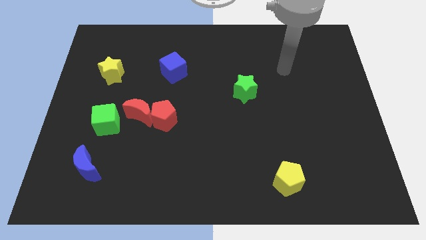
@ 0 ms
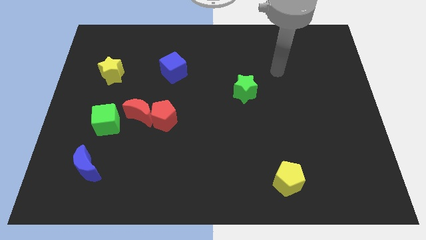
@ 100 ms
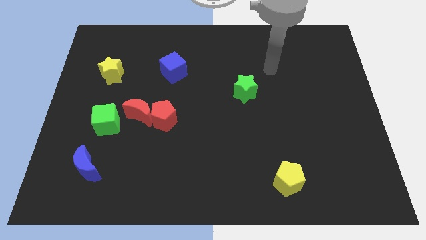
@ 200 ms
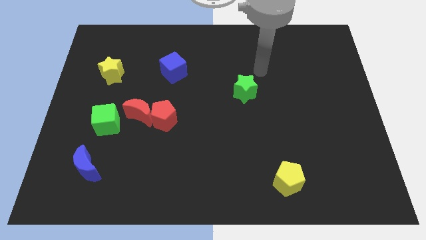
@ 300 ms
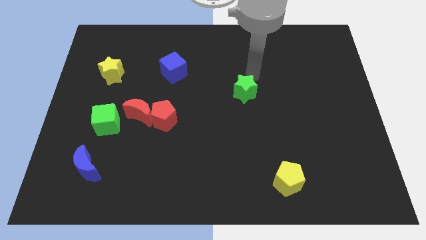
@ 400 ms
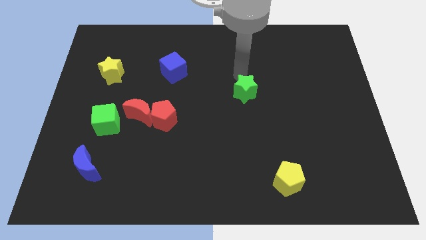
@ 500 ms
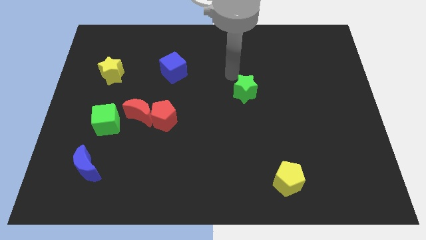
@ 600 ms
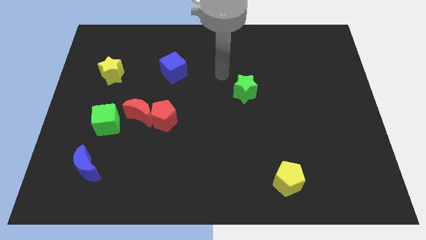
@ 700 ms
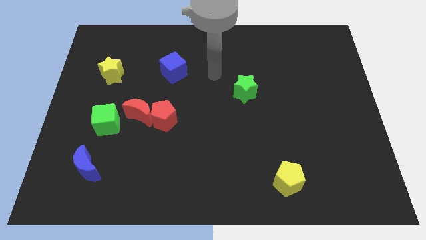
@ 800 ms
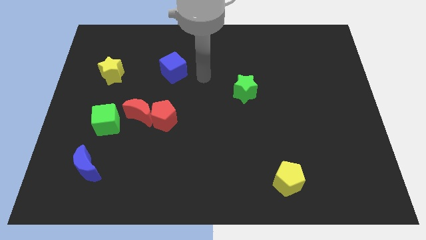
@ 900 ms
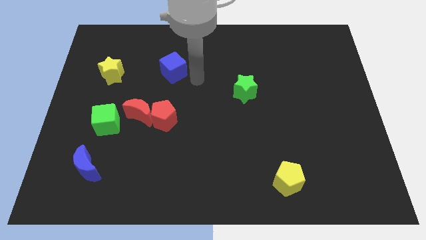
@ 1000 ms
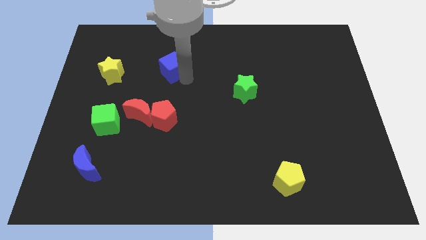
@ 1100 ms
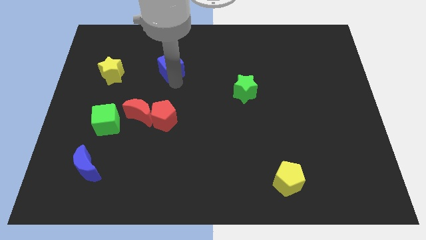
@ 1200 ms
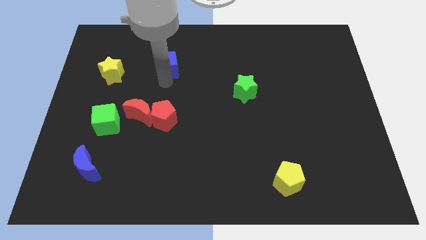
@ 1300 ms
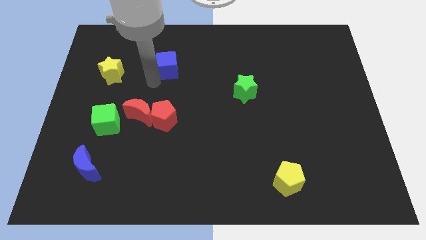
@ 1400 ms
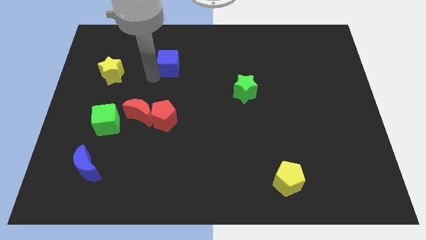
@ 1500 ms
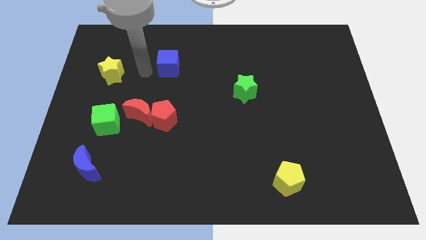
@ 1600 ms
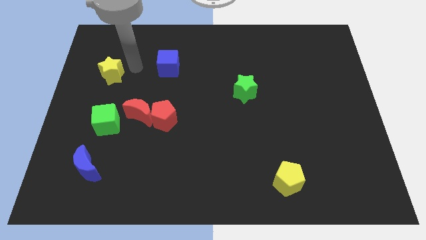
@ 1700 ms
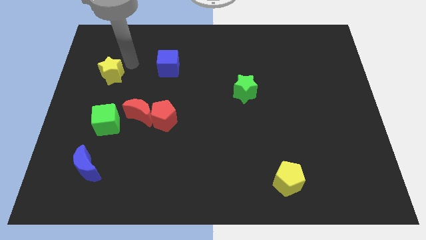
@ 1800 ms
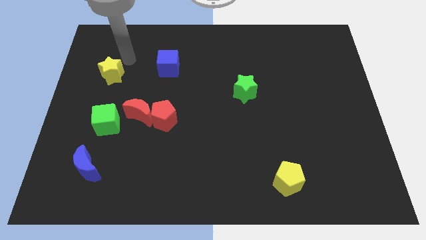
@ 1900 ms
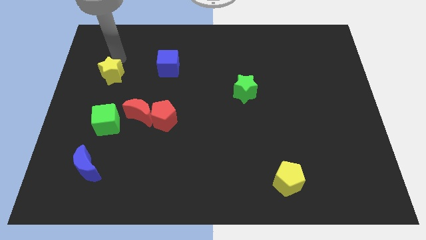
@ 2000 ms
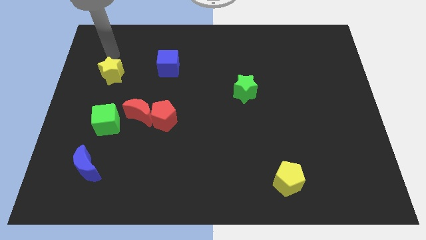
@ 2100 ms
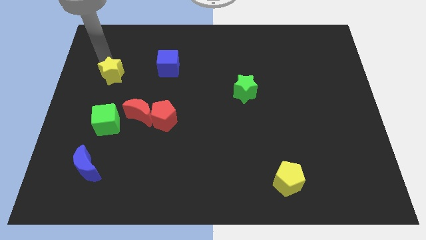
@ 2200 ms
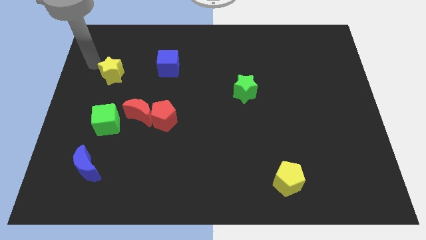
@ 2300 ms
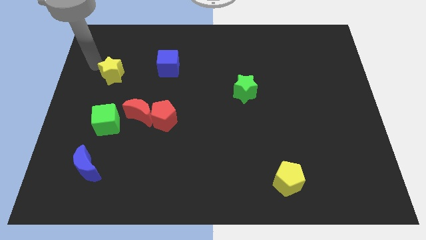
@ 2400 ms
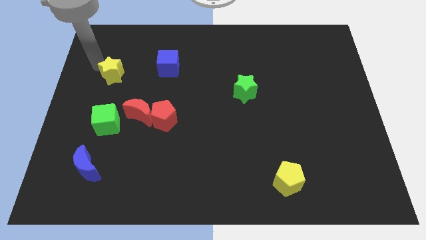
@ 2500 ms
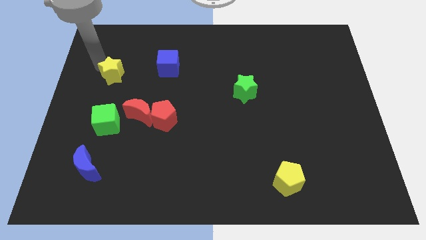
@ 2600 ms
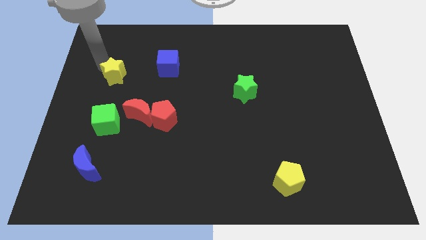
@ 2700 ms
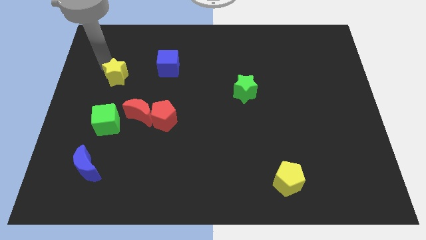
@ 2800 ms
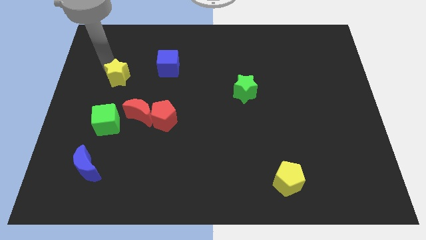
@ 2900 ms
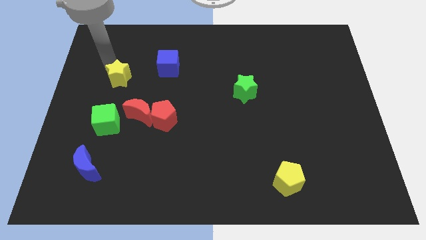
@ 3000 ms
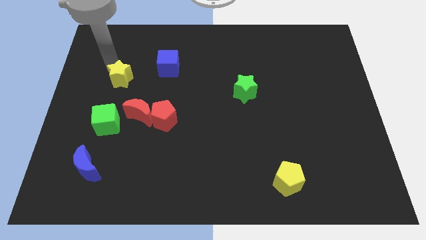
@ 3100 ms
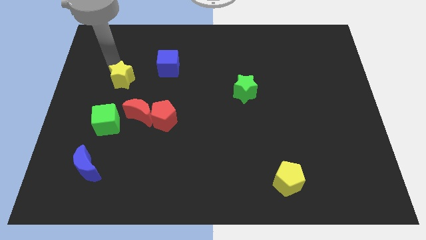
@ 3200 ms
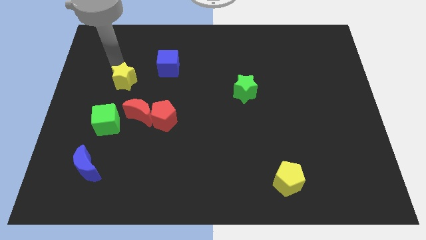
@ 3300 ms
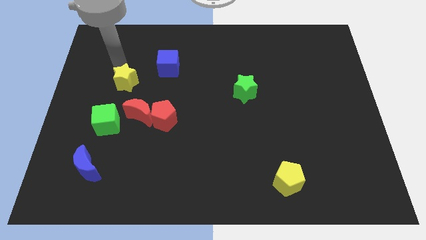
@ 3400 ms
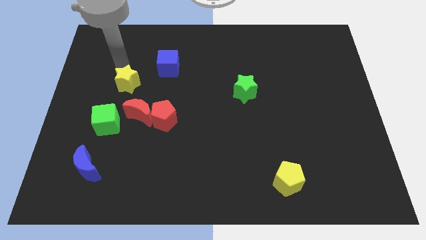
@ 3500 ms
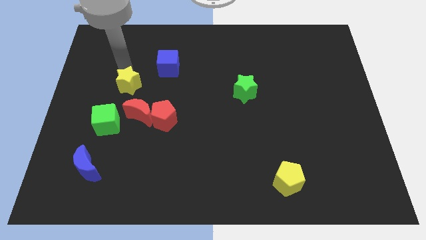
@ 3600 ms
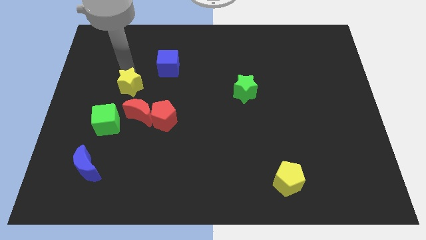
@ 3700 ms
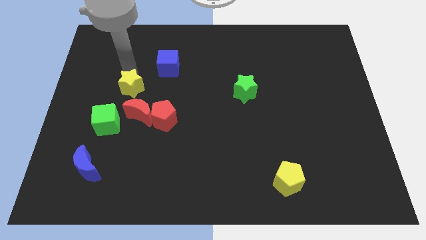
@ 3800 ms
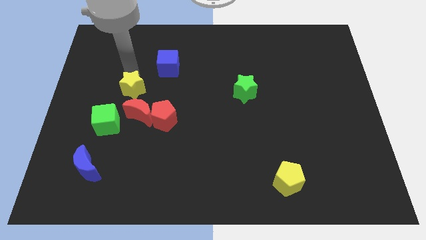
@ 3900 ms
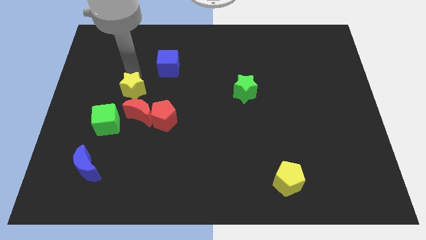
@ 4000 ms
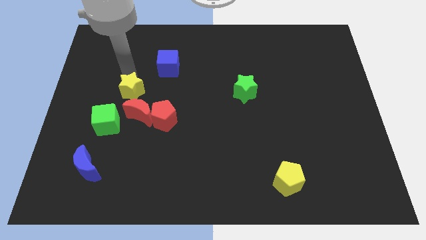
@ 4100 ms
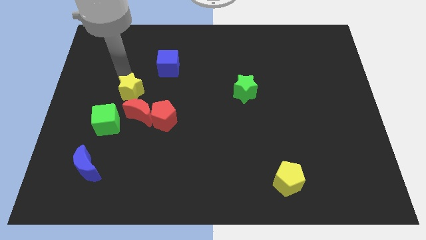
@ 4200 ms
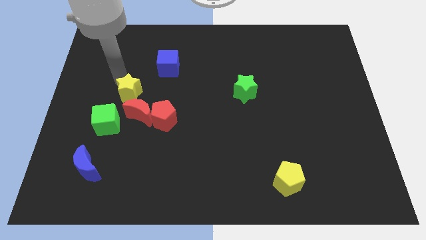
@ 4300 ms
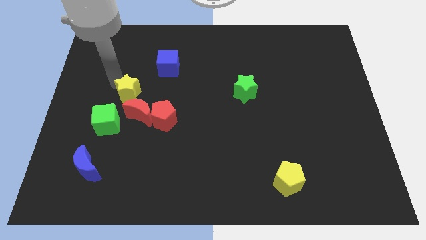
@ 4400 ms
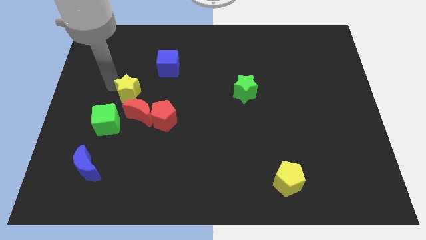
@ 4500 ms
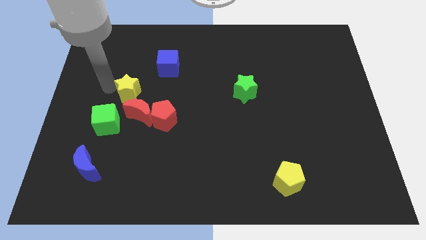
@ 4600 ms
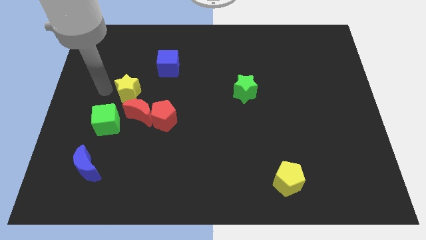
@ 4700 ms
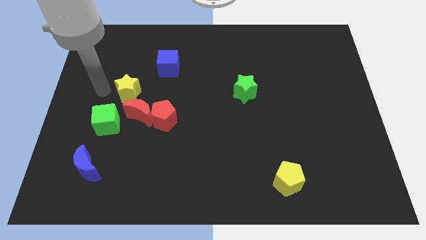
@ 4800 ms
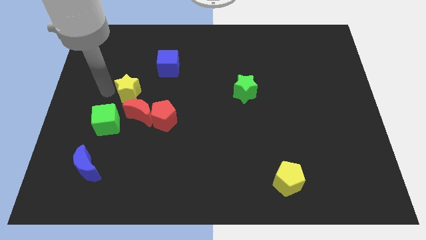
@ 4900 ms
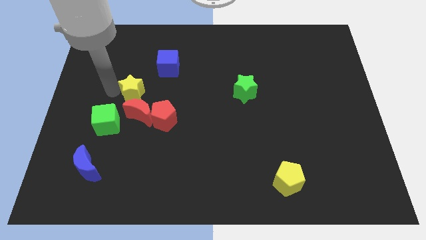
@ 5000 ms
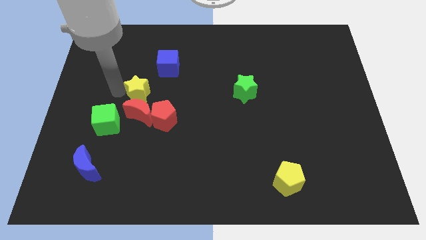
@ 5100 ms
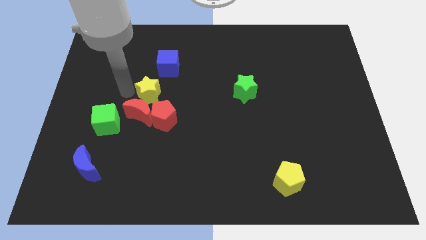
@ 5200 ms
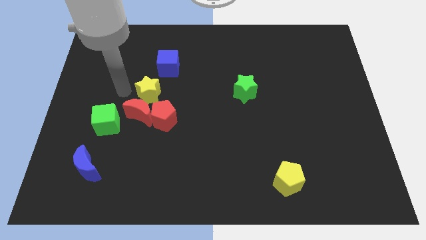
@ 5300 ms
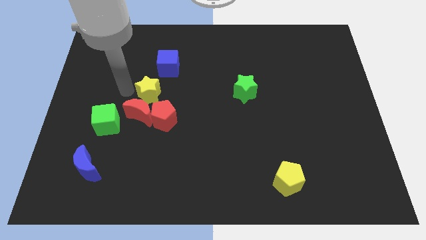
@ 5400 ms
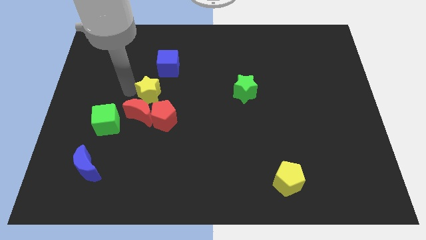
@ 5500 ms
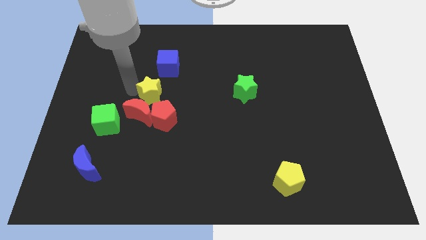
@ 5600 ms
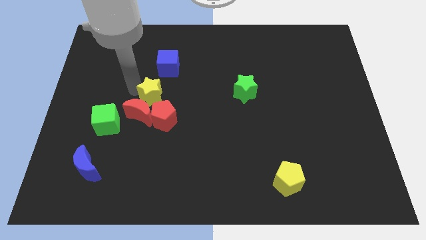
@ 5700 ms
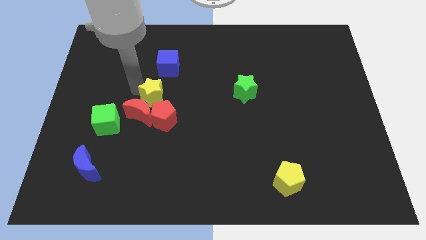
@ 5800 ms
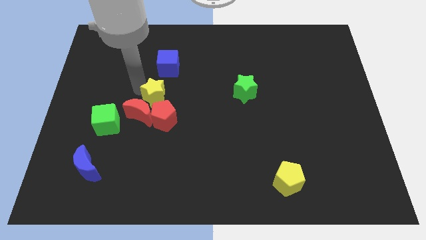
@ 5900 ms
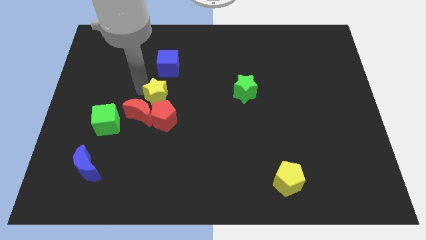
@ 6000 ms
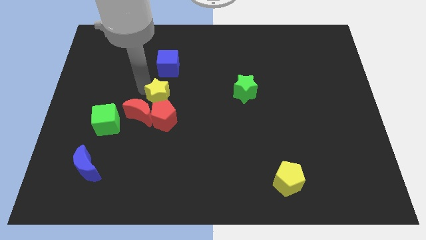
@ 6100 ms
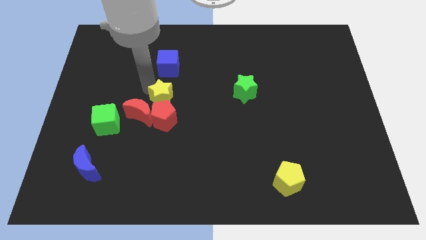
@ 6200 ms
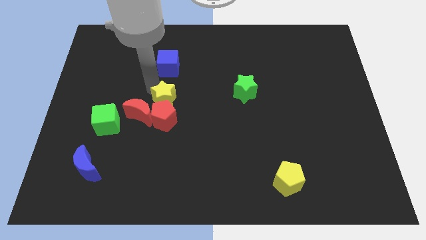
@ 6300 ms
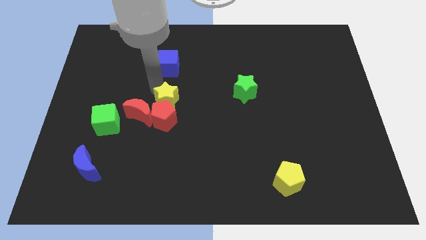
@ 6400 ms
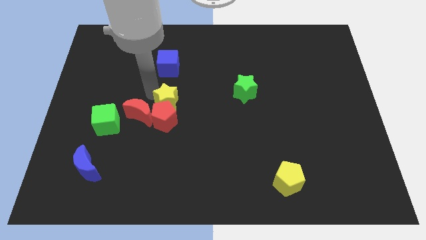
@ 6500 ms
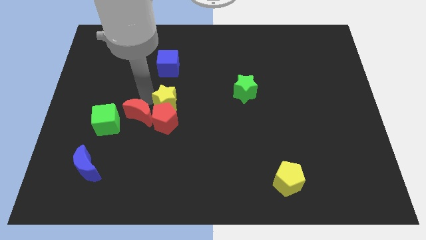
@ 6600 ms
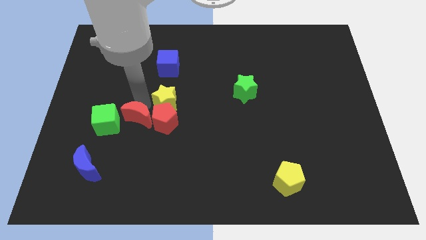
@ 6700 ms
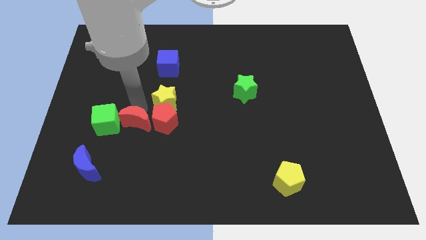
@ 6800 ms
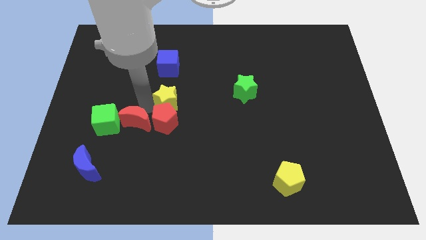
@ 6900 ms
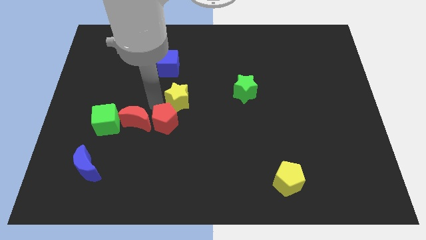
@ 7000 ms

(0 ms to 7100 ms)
put the yellow star left of the green star
